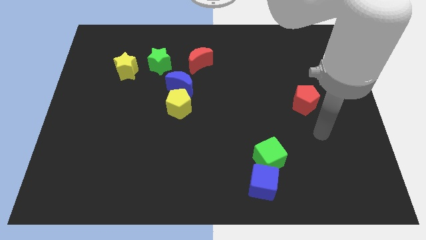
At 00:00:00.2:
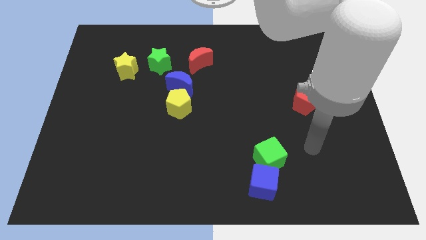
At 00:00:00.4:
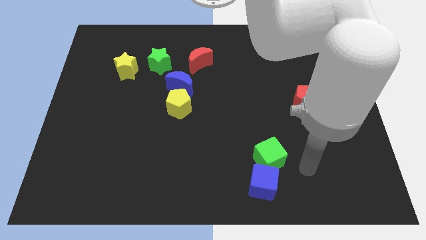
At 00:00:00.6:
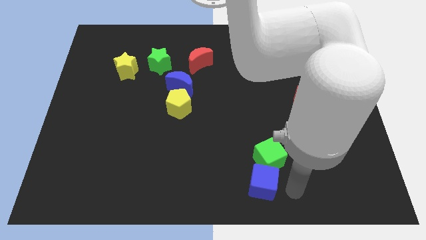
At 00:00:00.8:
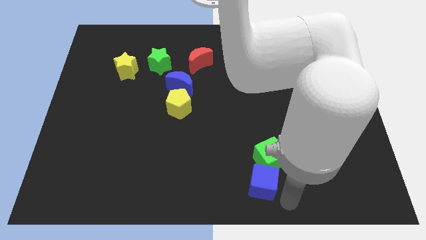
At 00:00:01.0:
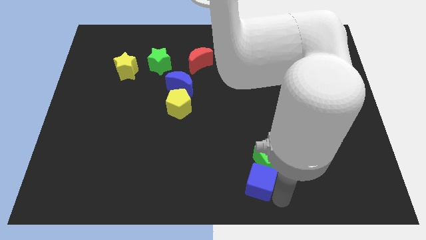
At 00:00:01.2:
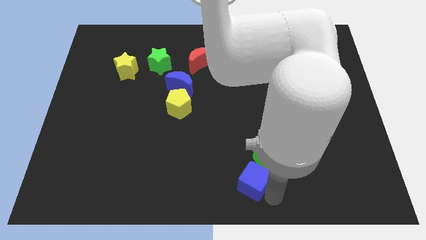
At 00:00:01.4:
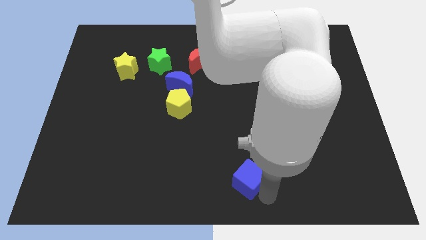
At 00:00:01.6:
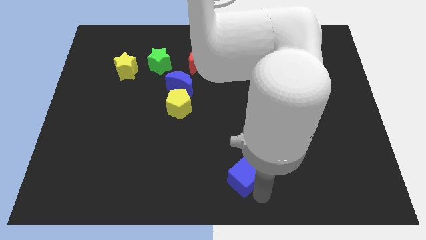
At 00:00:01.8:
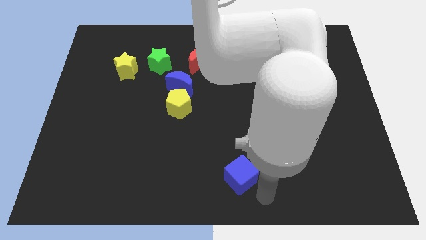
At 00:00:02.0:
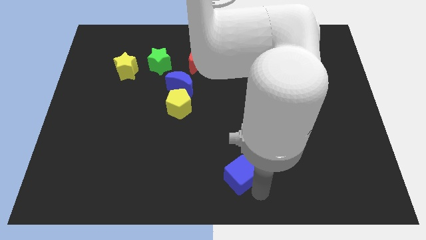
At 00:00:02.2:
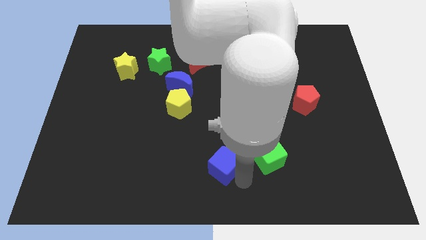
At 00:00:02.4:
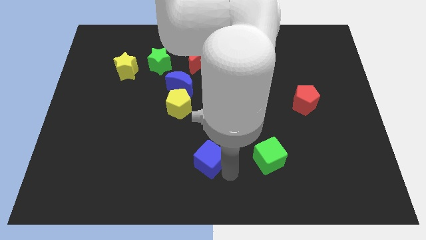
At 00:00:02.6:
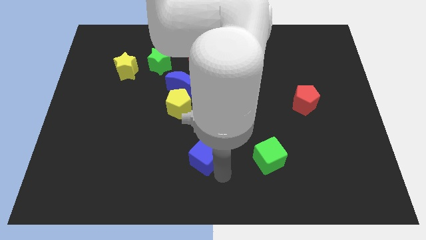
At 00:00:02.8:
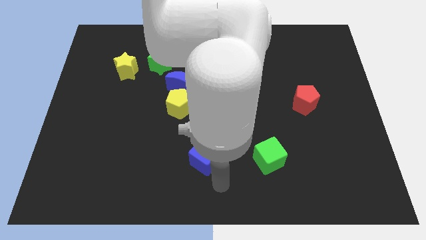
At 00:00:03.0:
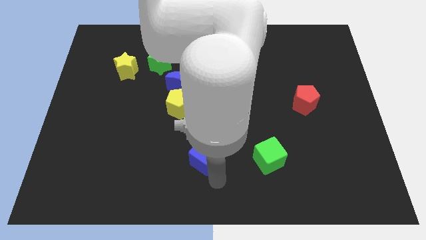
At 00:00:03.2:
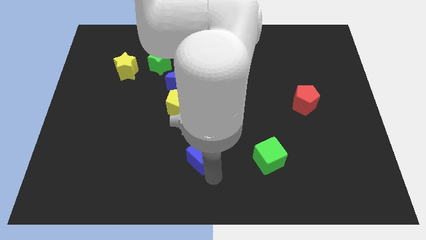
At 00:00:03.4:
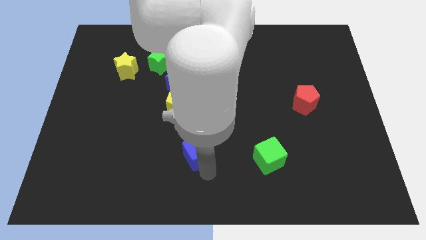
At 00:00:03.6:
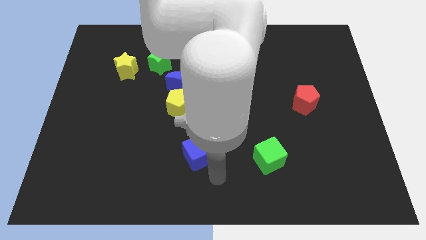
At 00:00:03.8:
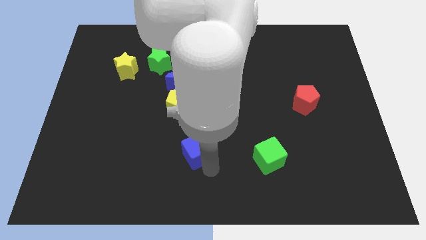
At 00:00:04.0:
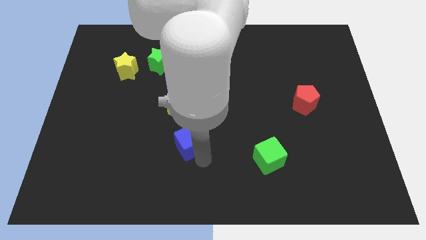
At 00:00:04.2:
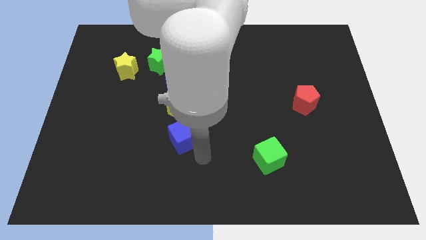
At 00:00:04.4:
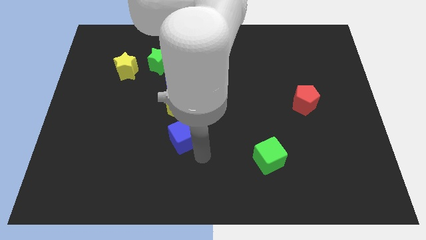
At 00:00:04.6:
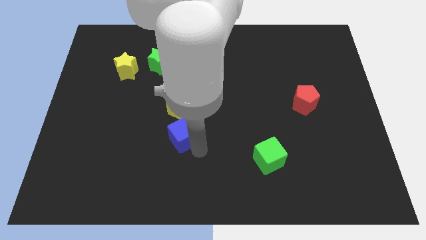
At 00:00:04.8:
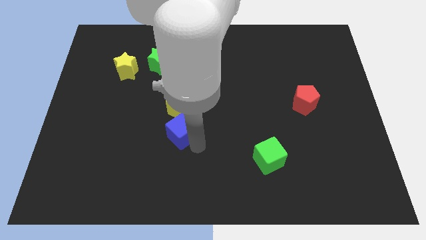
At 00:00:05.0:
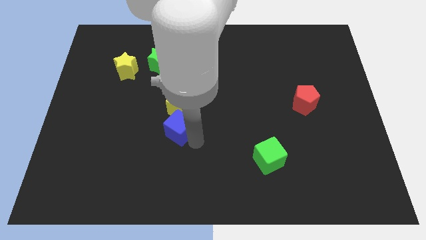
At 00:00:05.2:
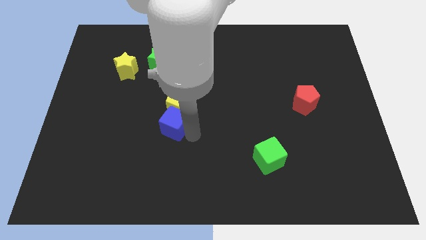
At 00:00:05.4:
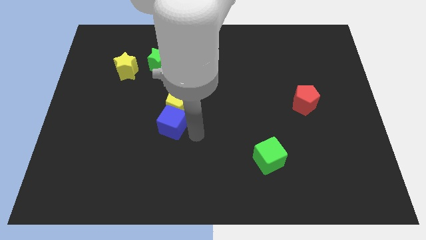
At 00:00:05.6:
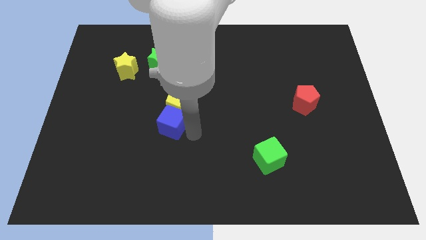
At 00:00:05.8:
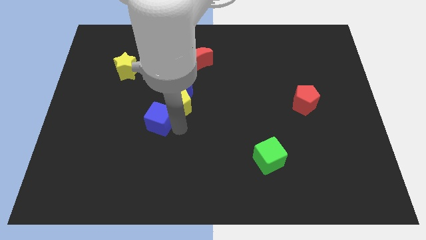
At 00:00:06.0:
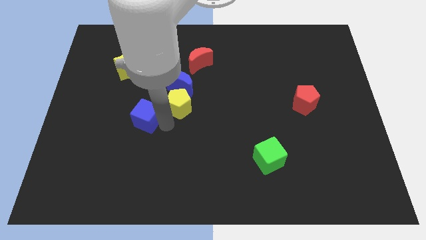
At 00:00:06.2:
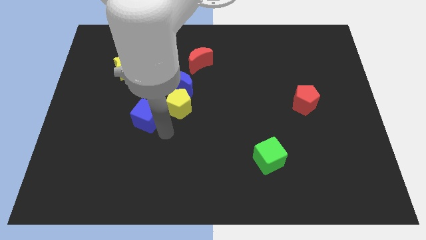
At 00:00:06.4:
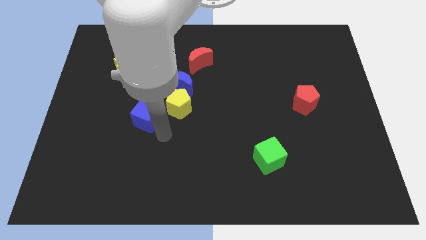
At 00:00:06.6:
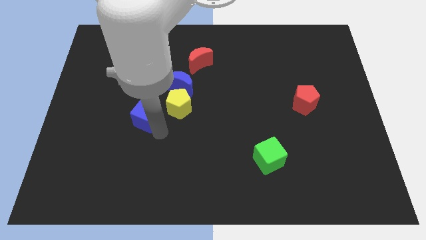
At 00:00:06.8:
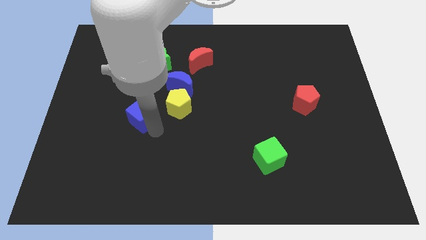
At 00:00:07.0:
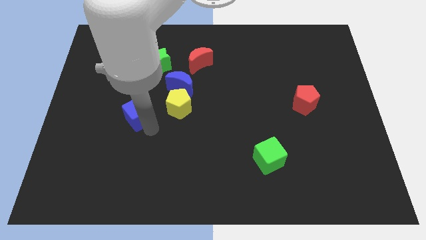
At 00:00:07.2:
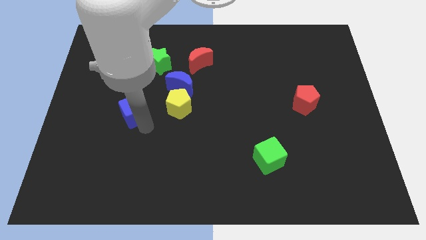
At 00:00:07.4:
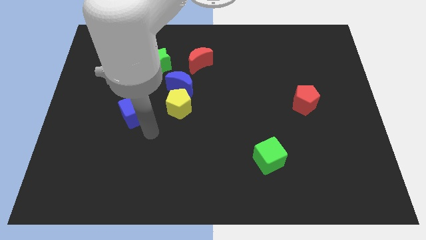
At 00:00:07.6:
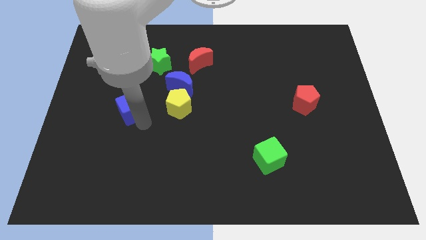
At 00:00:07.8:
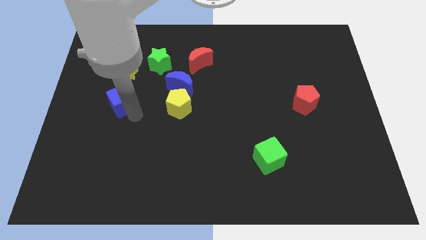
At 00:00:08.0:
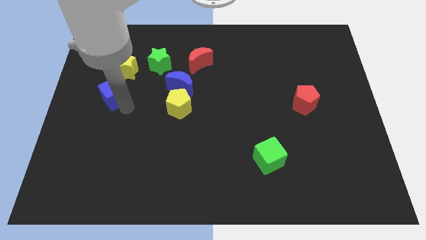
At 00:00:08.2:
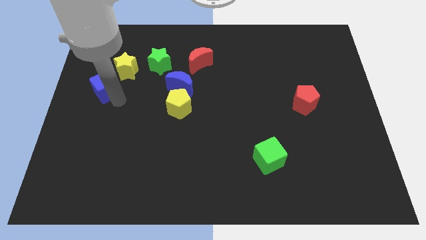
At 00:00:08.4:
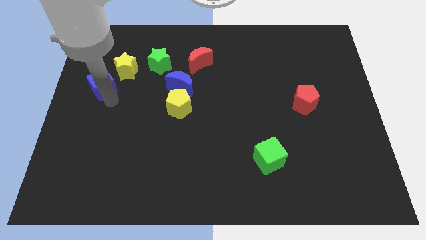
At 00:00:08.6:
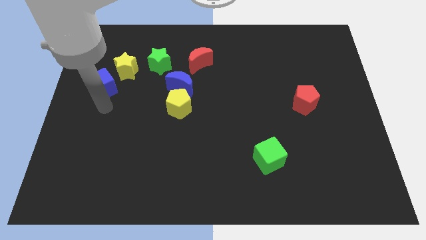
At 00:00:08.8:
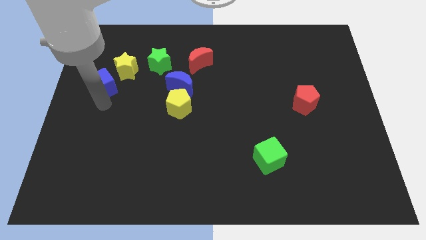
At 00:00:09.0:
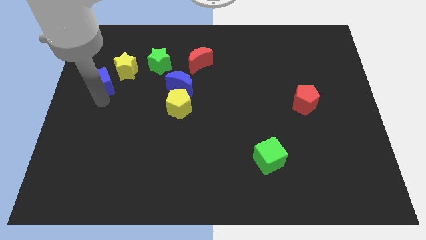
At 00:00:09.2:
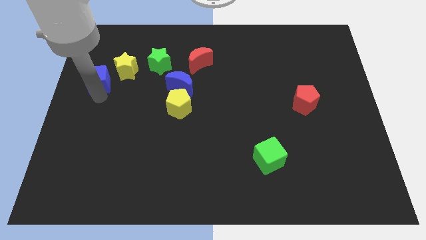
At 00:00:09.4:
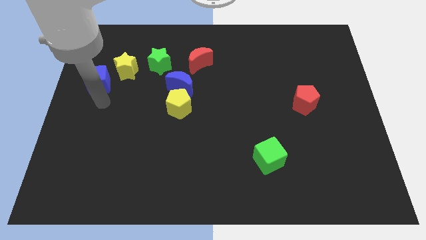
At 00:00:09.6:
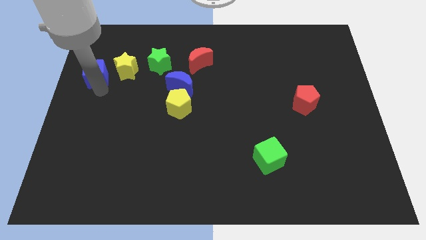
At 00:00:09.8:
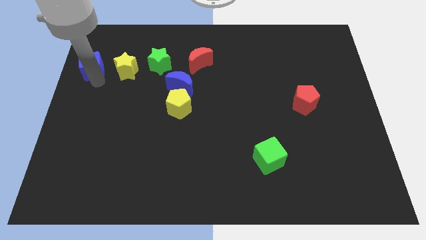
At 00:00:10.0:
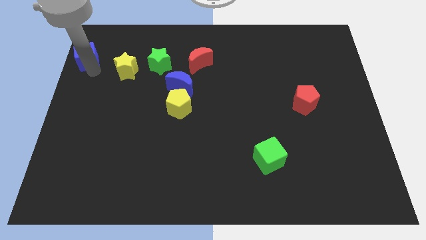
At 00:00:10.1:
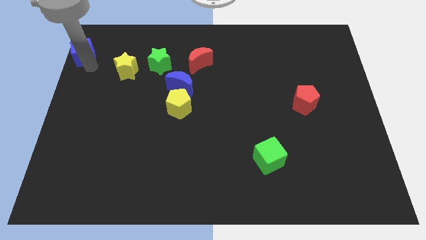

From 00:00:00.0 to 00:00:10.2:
push the blue cube to the upper left corner
